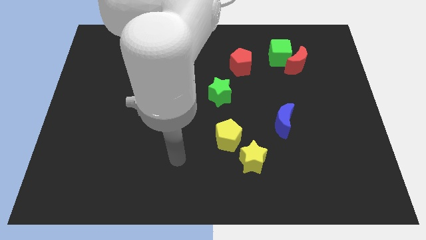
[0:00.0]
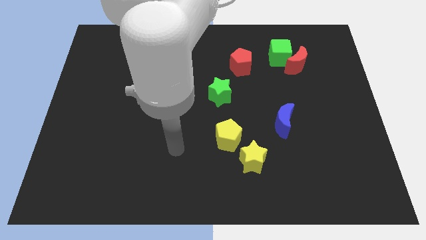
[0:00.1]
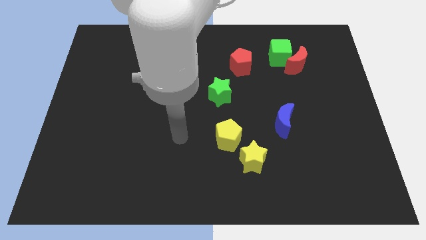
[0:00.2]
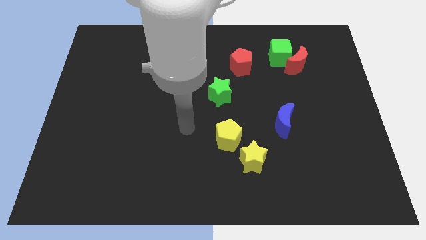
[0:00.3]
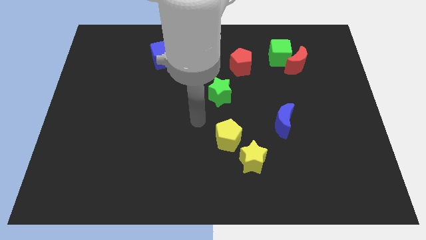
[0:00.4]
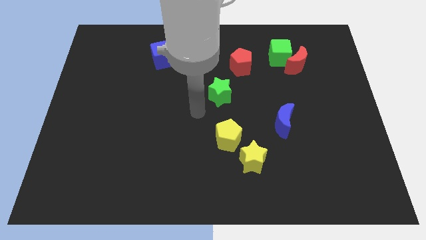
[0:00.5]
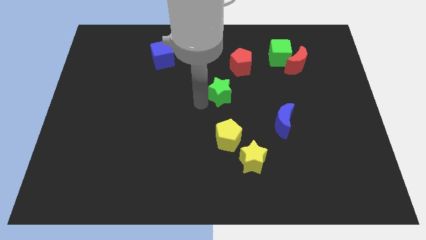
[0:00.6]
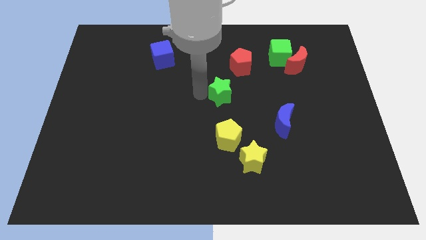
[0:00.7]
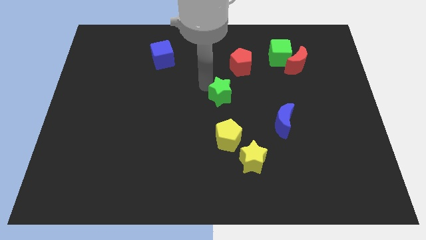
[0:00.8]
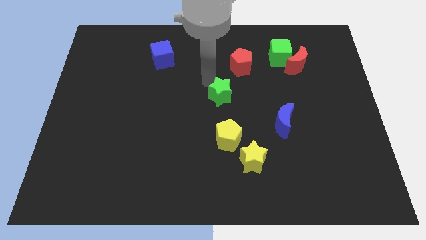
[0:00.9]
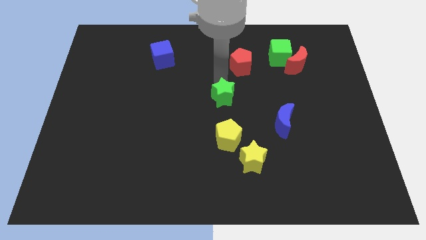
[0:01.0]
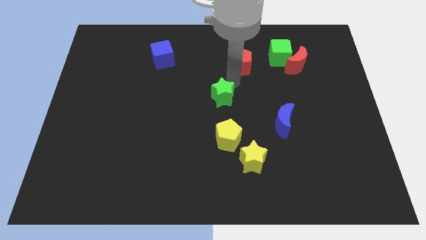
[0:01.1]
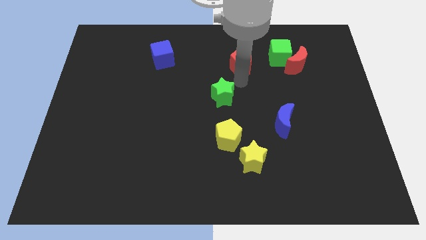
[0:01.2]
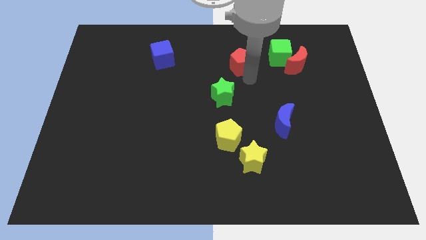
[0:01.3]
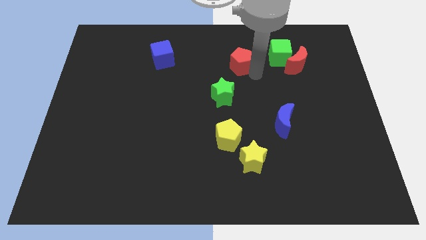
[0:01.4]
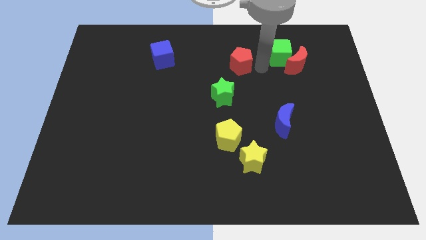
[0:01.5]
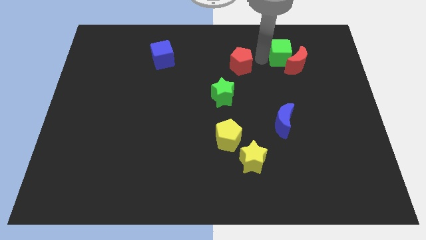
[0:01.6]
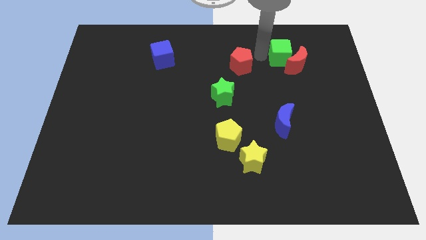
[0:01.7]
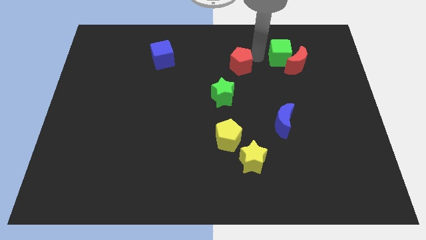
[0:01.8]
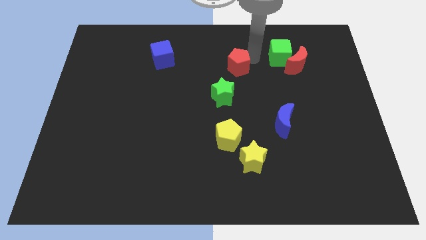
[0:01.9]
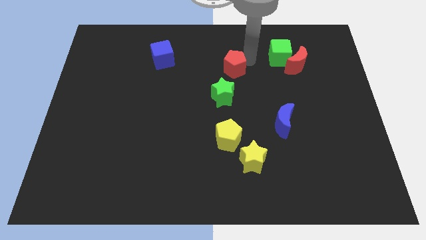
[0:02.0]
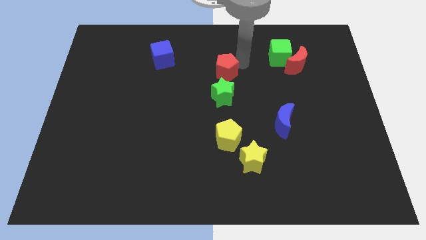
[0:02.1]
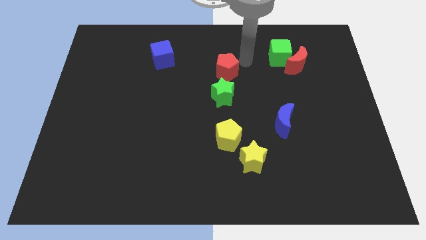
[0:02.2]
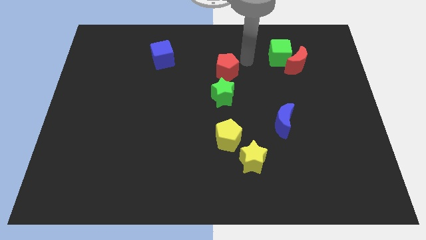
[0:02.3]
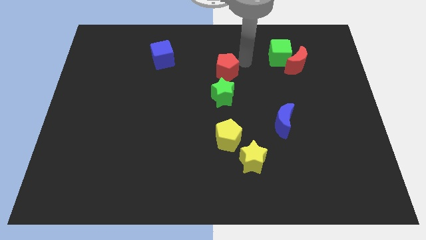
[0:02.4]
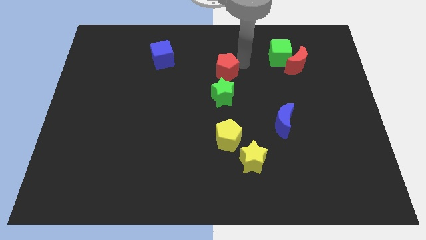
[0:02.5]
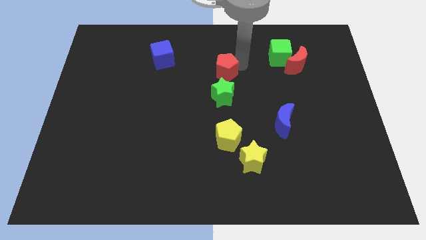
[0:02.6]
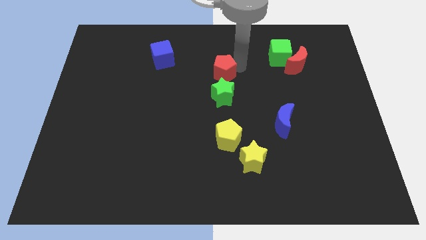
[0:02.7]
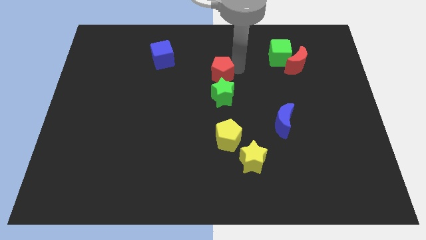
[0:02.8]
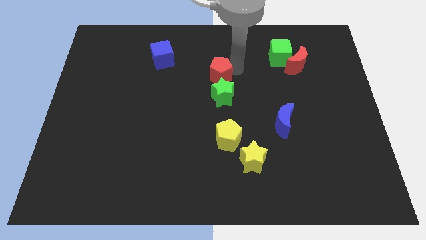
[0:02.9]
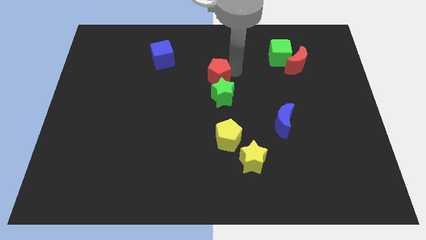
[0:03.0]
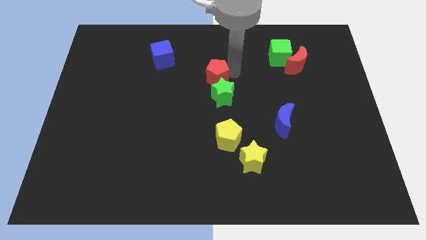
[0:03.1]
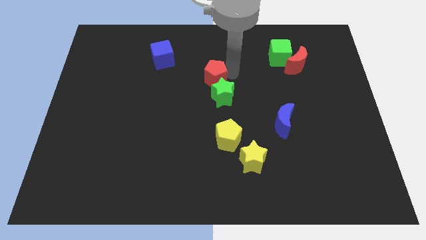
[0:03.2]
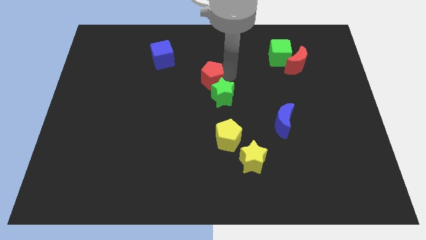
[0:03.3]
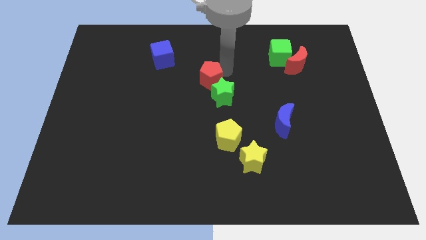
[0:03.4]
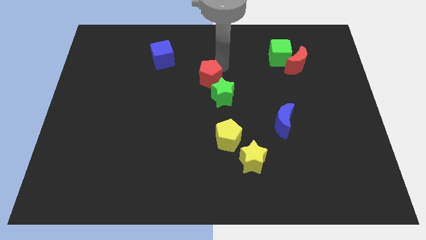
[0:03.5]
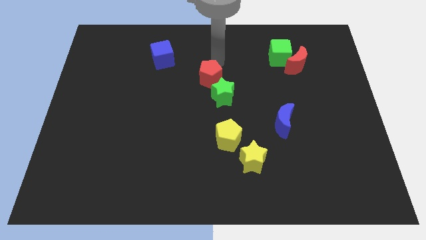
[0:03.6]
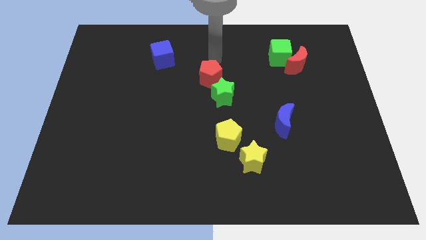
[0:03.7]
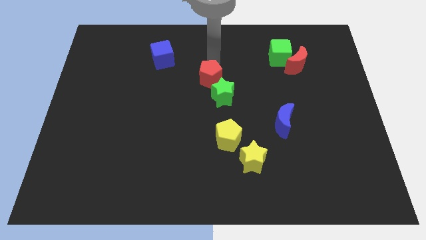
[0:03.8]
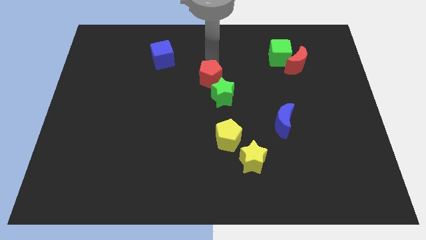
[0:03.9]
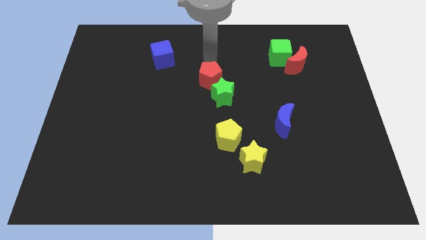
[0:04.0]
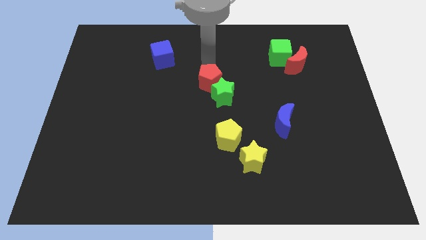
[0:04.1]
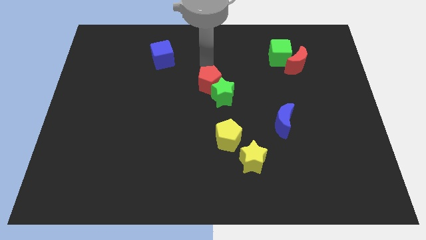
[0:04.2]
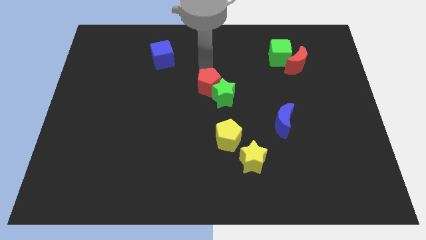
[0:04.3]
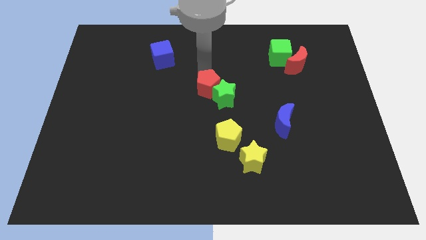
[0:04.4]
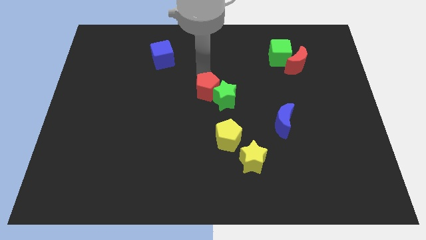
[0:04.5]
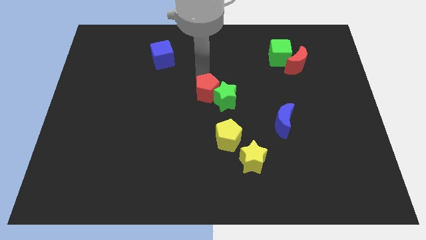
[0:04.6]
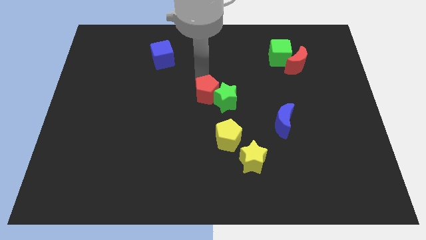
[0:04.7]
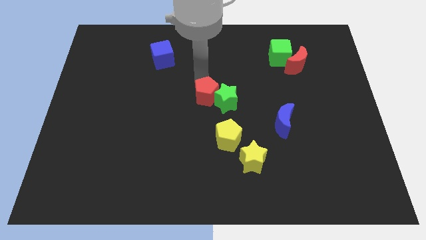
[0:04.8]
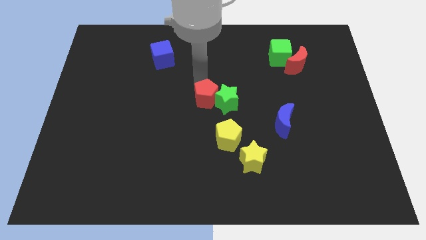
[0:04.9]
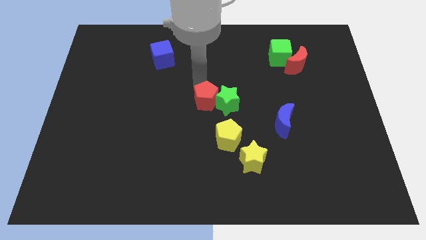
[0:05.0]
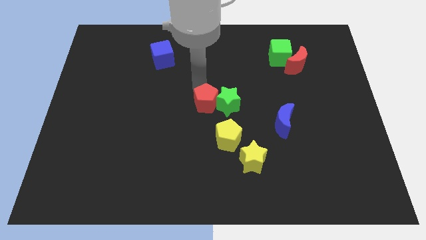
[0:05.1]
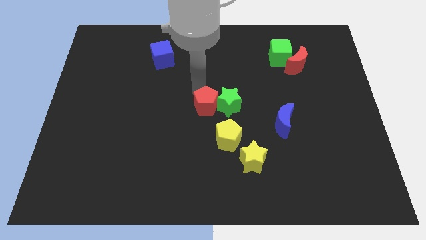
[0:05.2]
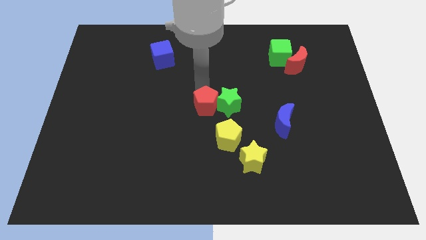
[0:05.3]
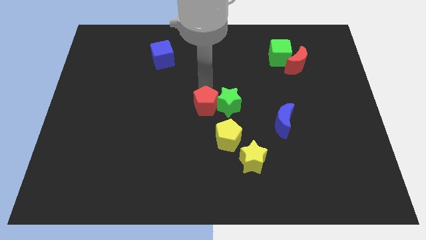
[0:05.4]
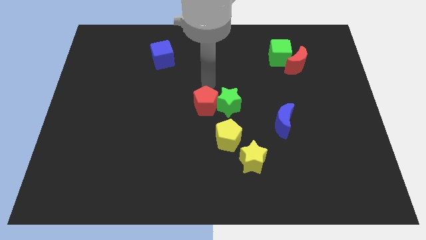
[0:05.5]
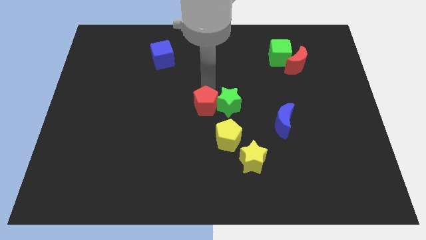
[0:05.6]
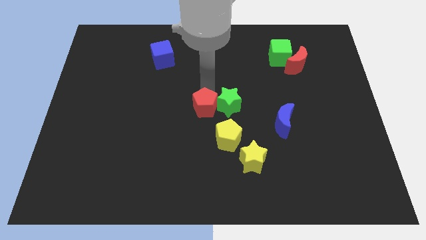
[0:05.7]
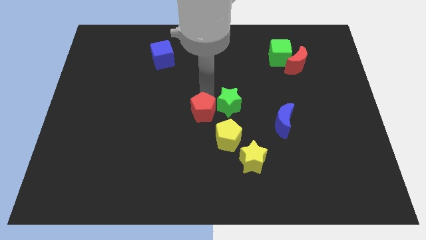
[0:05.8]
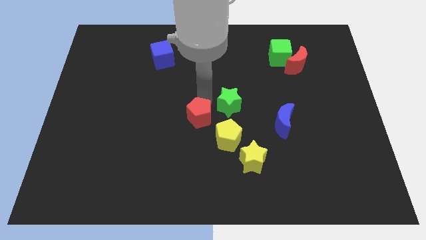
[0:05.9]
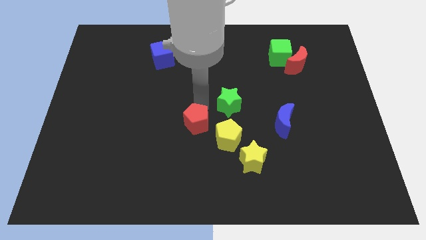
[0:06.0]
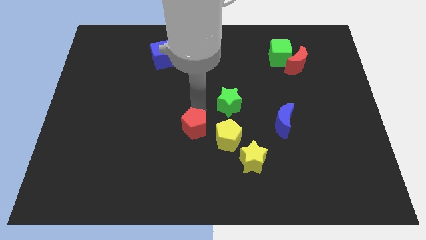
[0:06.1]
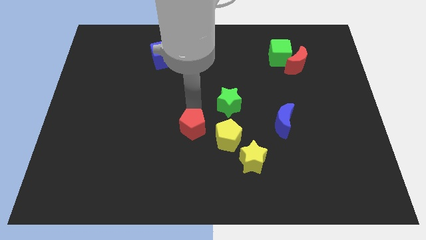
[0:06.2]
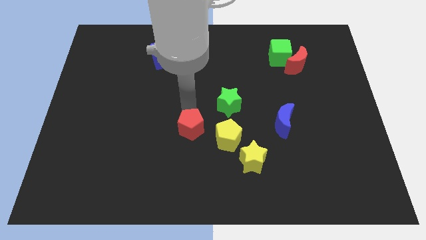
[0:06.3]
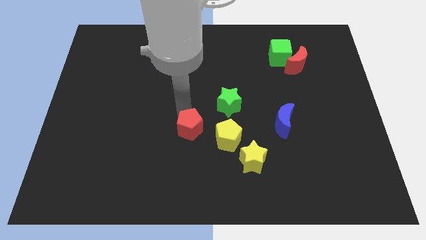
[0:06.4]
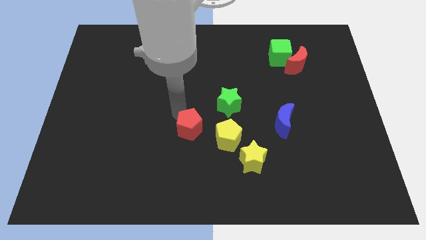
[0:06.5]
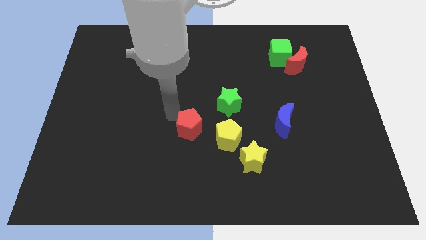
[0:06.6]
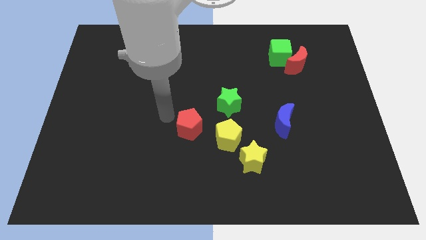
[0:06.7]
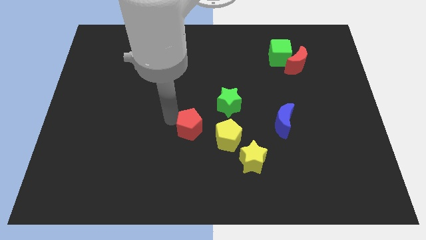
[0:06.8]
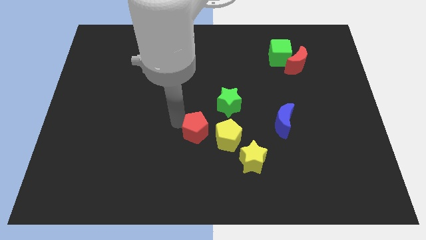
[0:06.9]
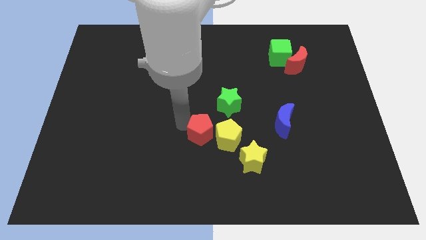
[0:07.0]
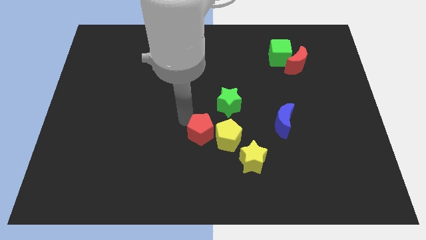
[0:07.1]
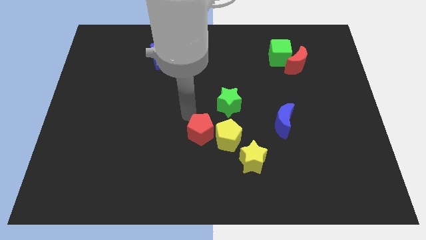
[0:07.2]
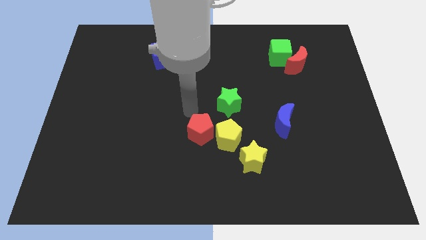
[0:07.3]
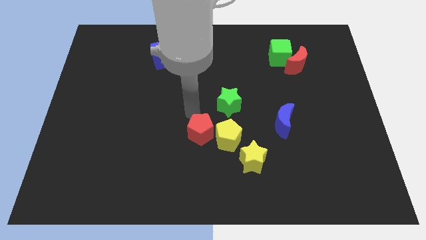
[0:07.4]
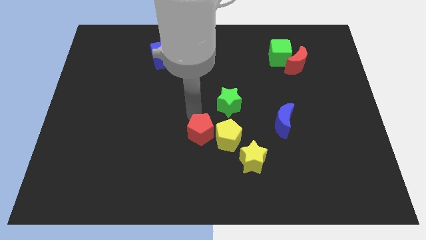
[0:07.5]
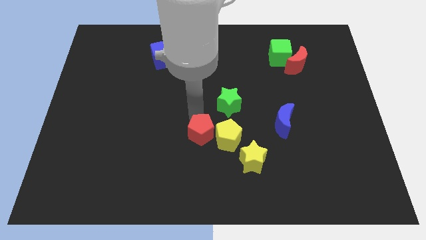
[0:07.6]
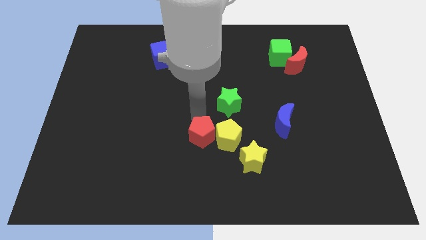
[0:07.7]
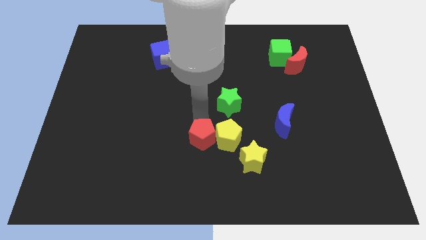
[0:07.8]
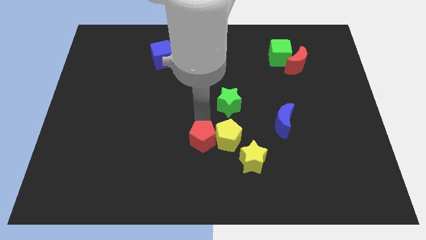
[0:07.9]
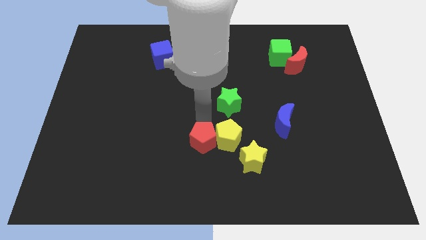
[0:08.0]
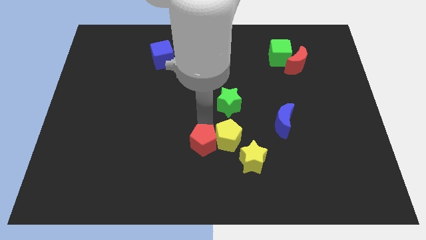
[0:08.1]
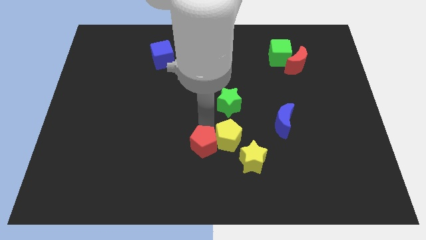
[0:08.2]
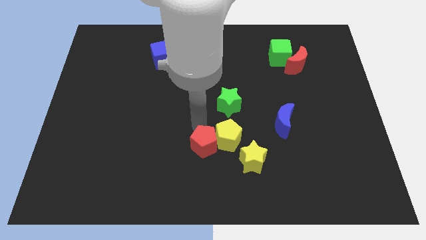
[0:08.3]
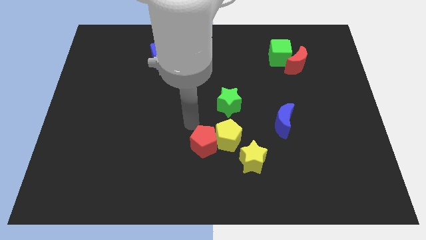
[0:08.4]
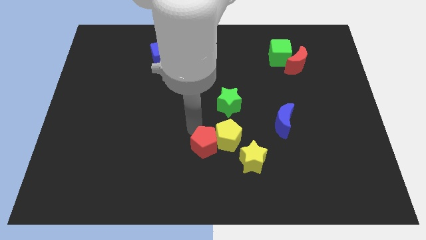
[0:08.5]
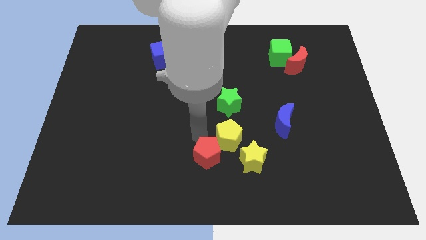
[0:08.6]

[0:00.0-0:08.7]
put the red pentagon to the bottom of the yellow pentagon
